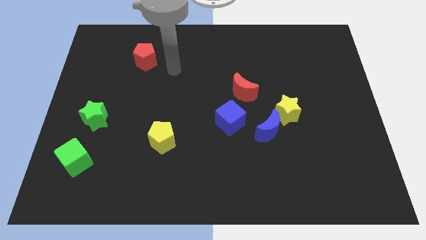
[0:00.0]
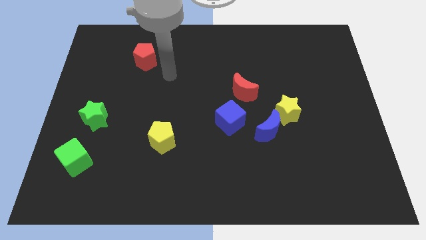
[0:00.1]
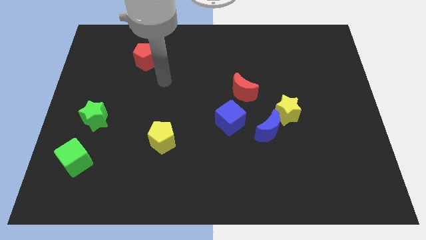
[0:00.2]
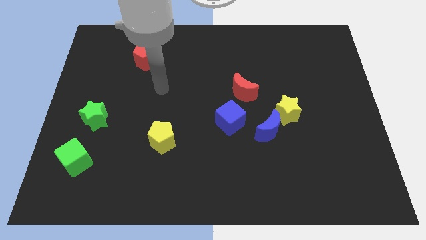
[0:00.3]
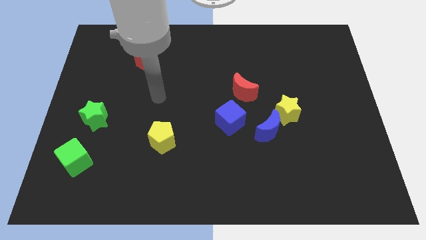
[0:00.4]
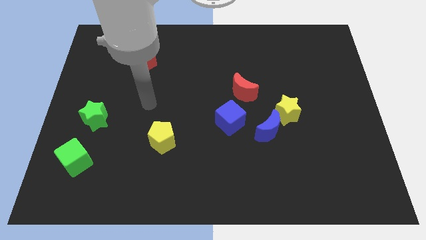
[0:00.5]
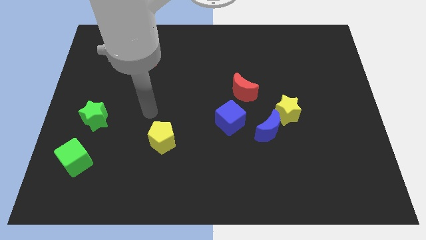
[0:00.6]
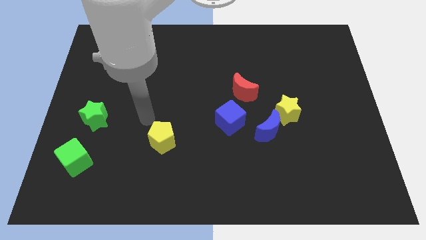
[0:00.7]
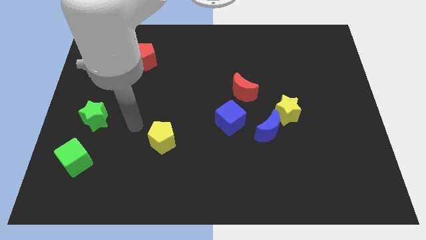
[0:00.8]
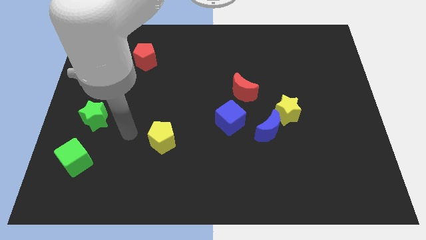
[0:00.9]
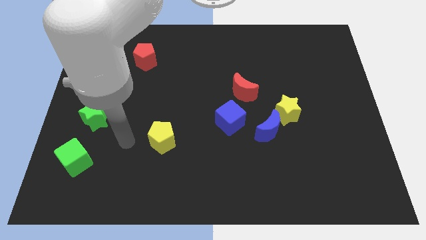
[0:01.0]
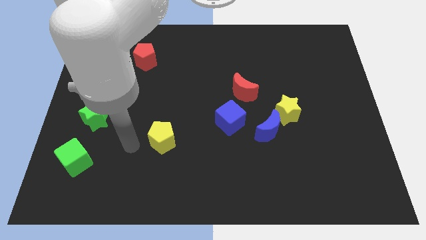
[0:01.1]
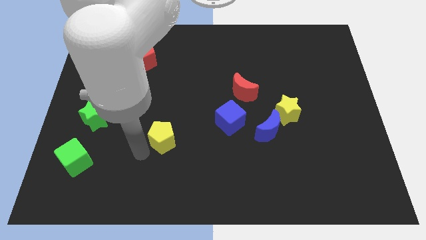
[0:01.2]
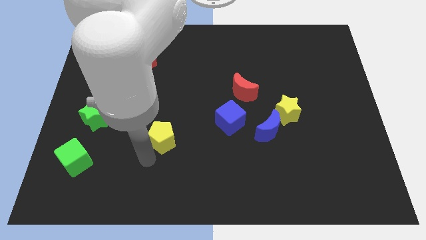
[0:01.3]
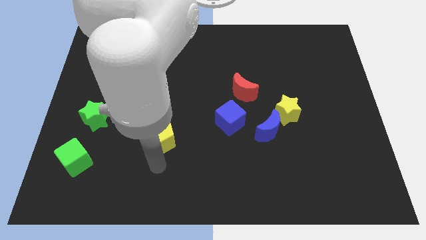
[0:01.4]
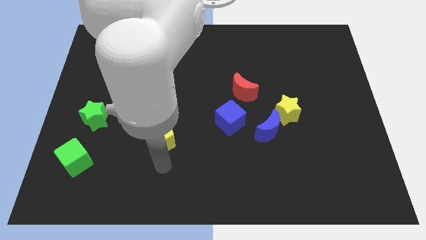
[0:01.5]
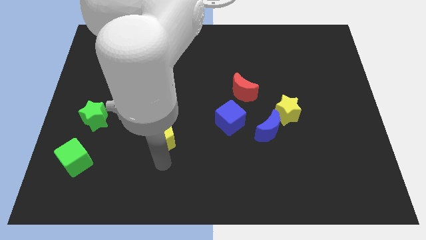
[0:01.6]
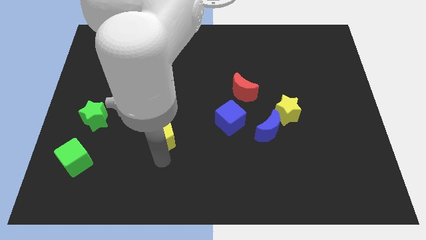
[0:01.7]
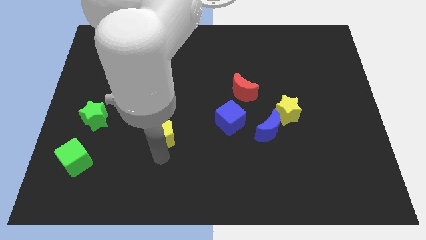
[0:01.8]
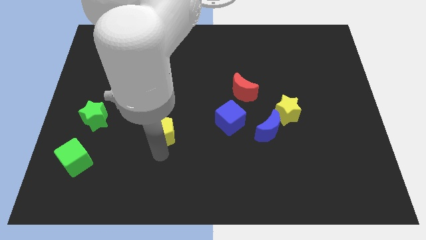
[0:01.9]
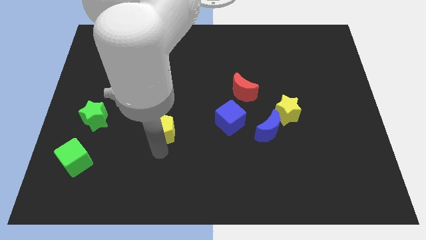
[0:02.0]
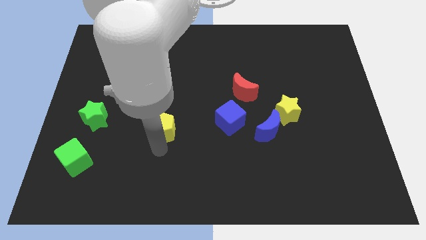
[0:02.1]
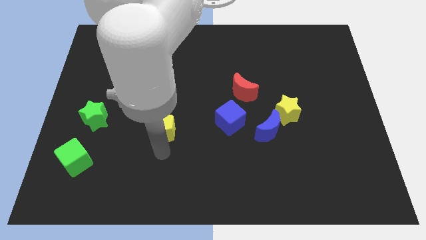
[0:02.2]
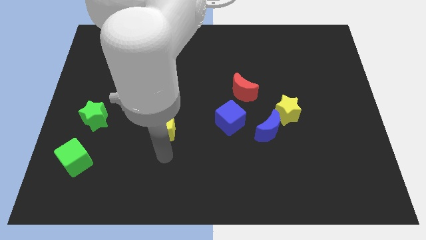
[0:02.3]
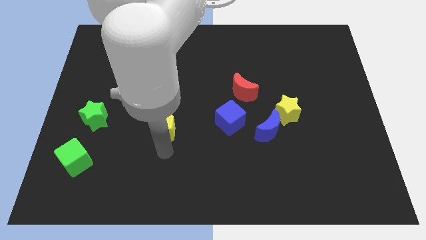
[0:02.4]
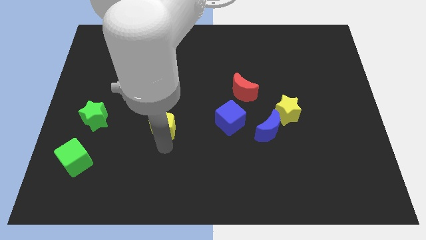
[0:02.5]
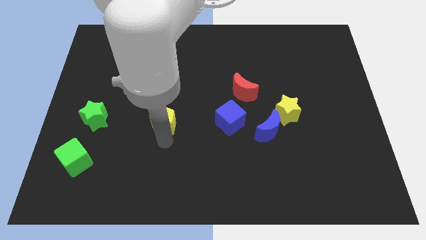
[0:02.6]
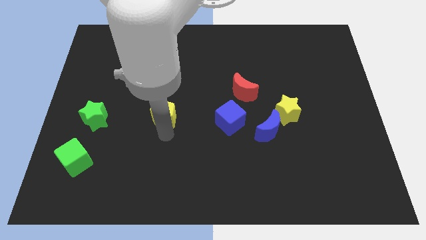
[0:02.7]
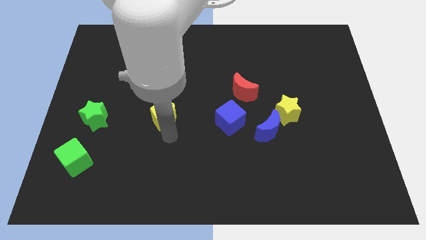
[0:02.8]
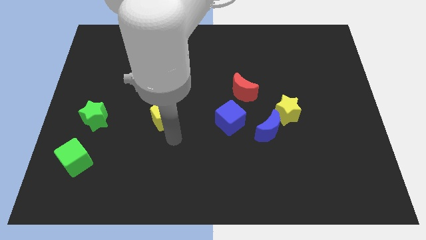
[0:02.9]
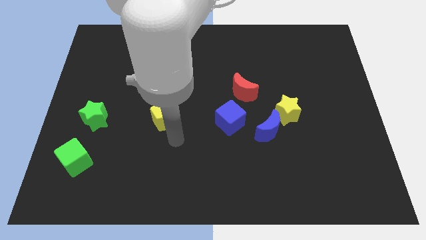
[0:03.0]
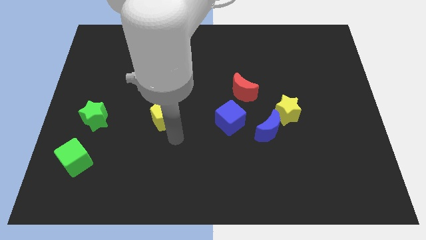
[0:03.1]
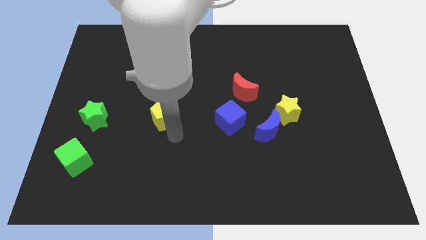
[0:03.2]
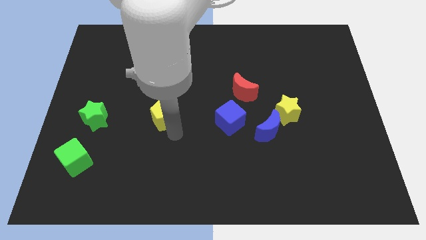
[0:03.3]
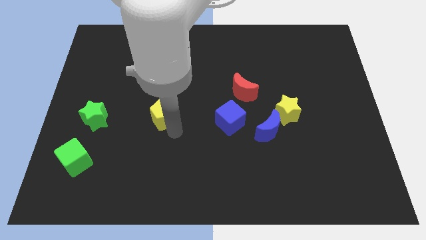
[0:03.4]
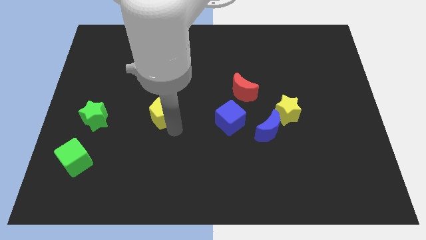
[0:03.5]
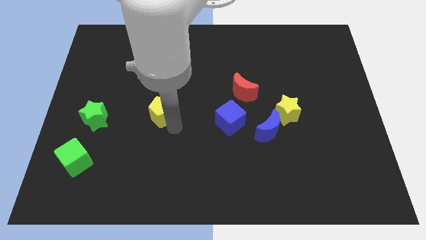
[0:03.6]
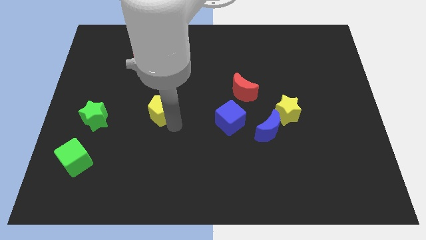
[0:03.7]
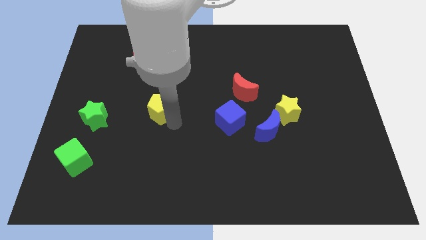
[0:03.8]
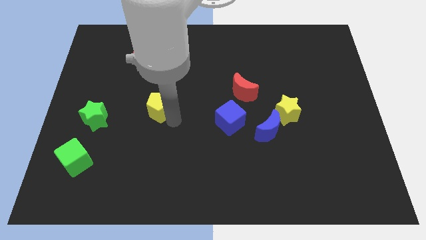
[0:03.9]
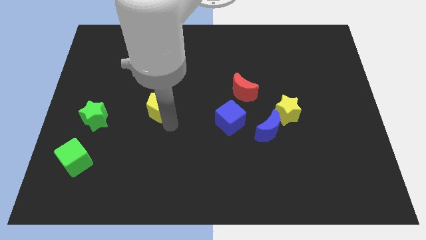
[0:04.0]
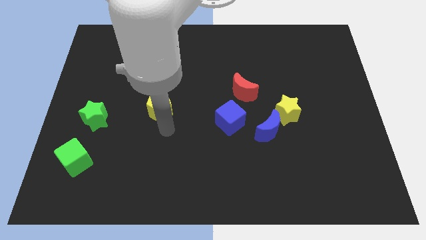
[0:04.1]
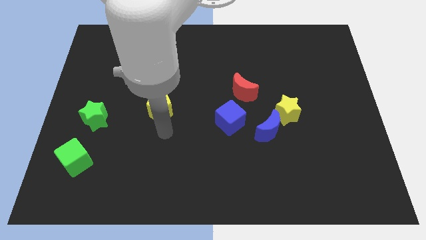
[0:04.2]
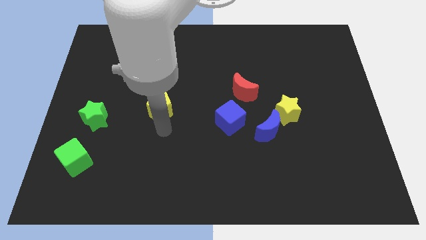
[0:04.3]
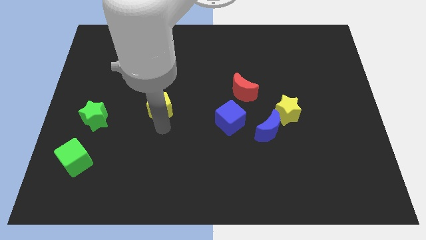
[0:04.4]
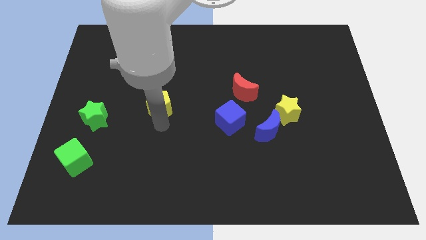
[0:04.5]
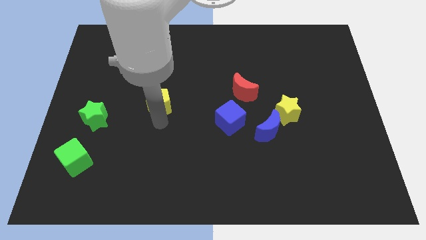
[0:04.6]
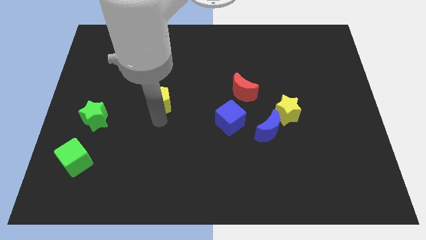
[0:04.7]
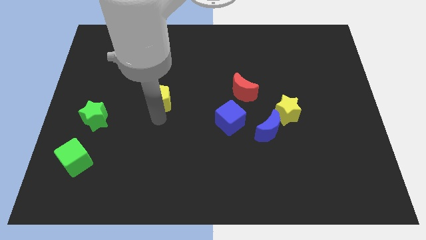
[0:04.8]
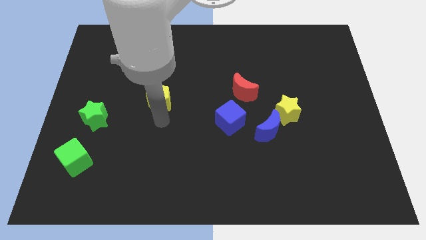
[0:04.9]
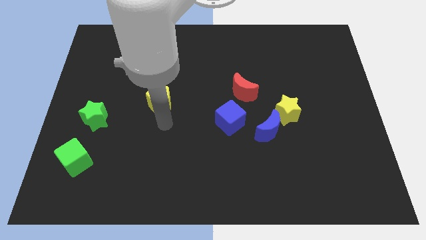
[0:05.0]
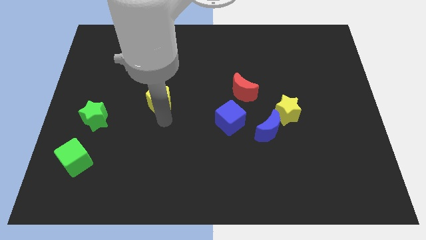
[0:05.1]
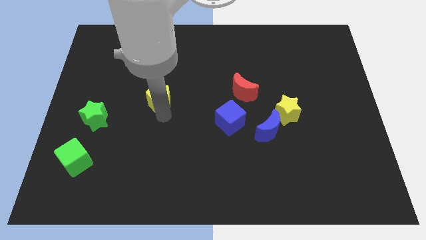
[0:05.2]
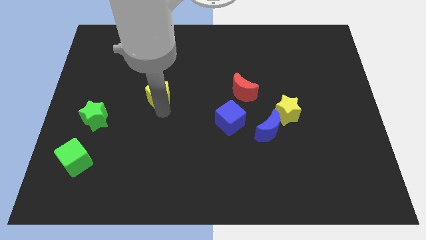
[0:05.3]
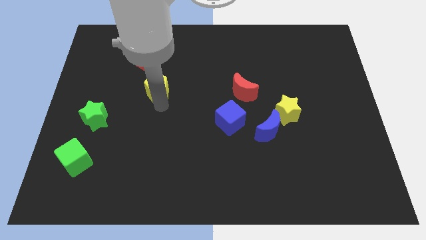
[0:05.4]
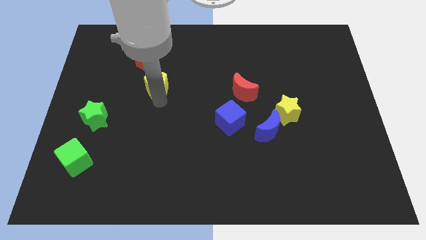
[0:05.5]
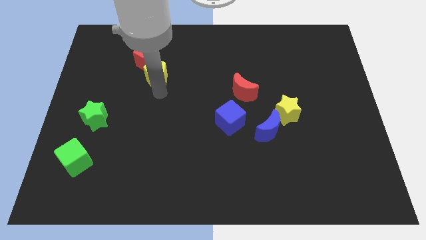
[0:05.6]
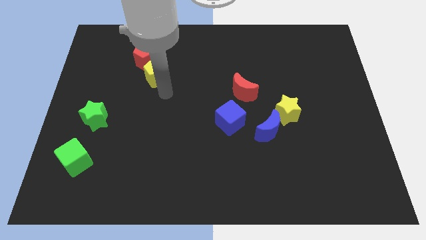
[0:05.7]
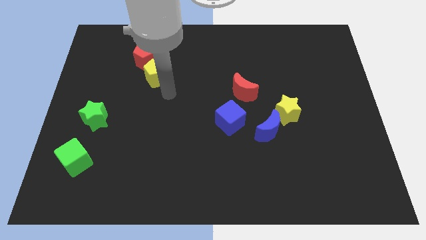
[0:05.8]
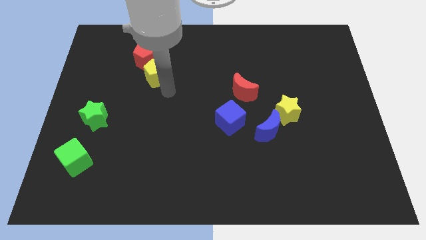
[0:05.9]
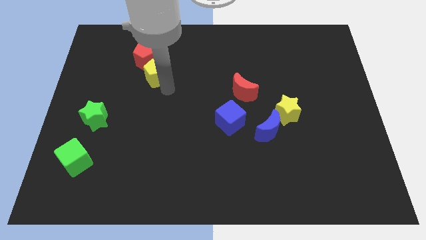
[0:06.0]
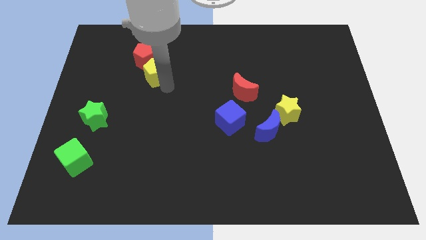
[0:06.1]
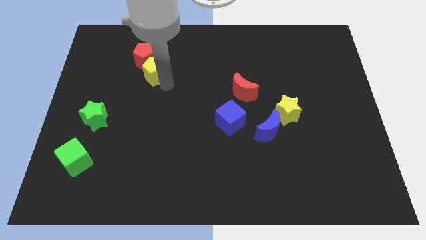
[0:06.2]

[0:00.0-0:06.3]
slide the yellow pentagon next to the red pentagon
